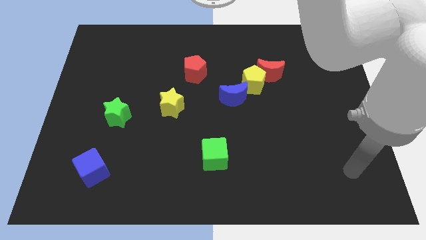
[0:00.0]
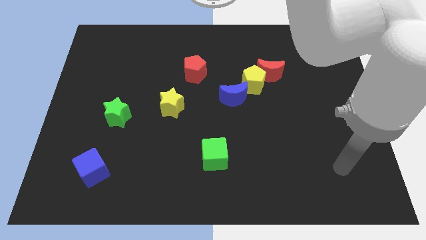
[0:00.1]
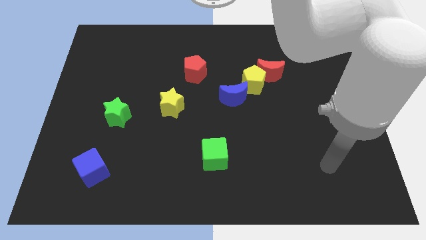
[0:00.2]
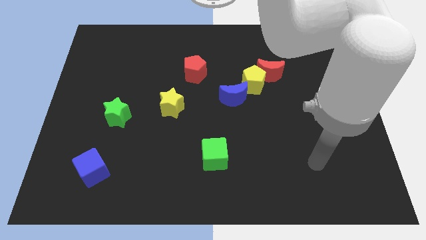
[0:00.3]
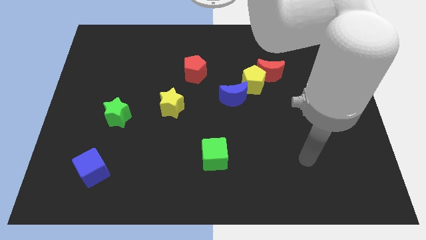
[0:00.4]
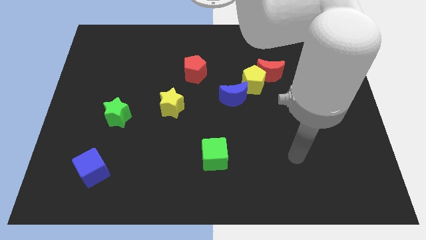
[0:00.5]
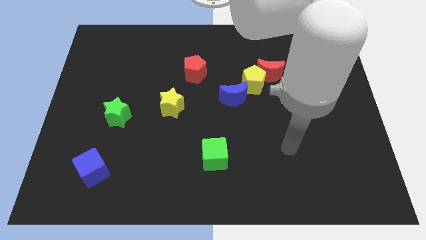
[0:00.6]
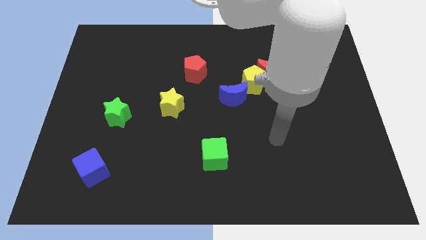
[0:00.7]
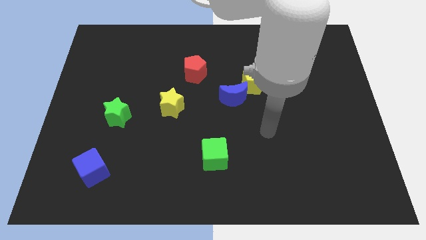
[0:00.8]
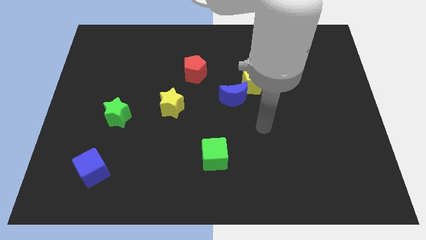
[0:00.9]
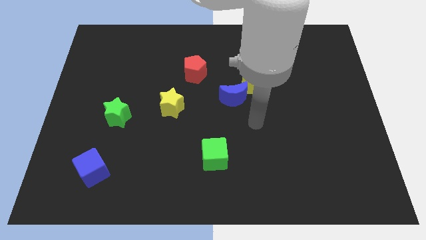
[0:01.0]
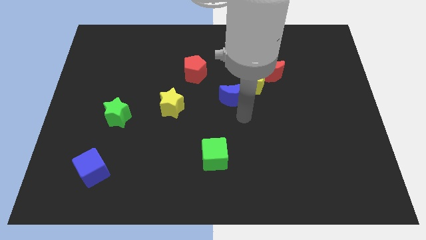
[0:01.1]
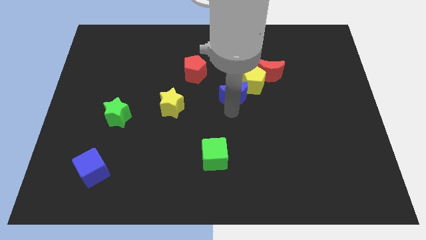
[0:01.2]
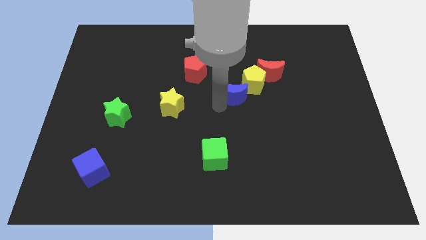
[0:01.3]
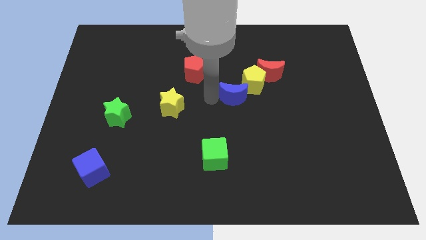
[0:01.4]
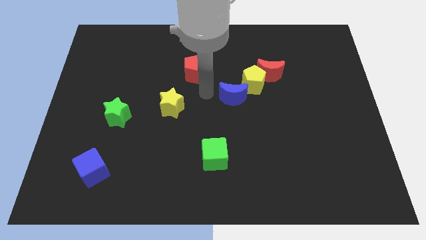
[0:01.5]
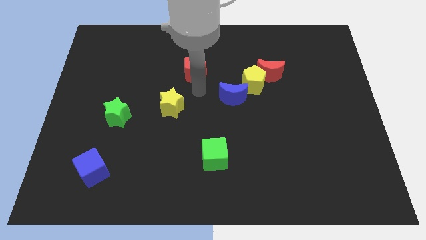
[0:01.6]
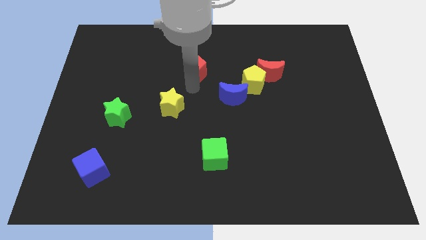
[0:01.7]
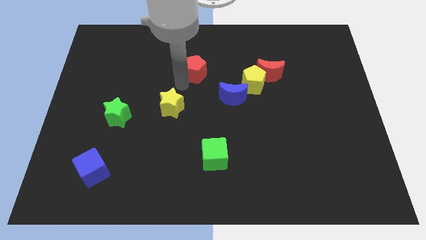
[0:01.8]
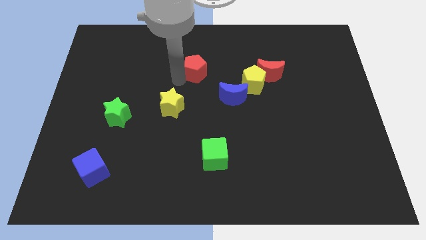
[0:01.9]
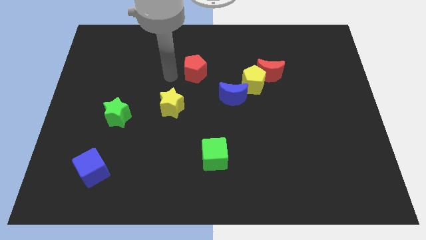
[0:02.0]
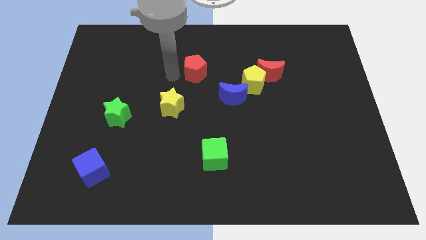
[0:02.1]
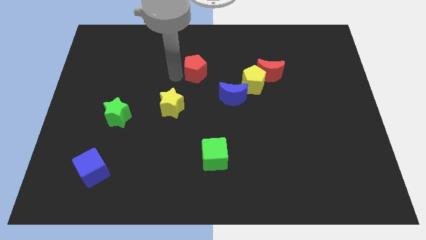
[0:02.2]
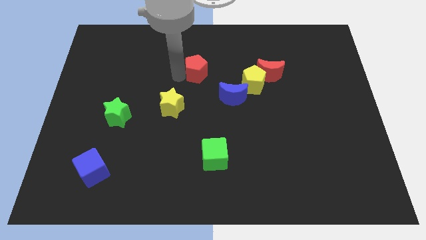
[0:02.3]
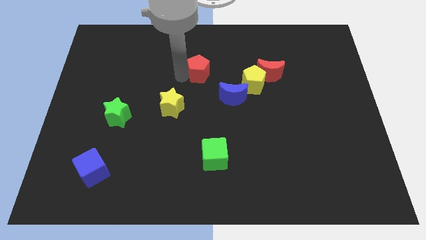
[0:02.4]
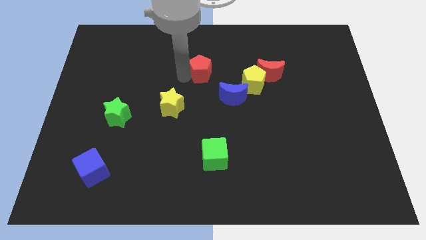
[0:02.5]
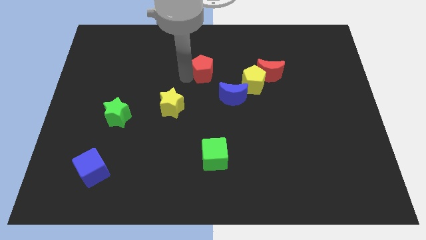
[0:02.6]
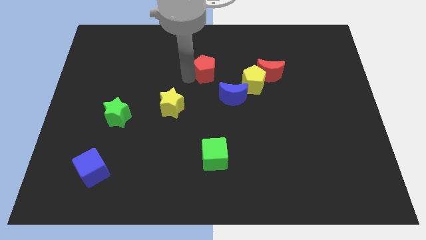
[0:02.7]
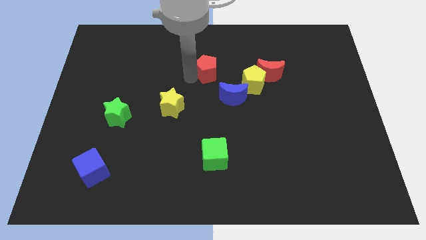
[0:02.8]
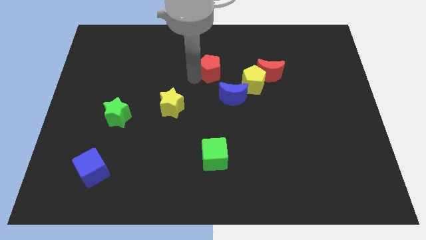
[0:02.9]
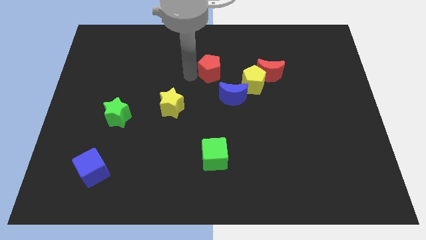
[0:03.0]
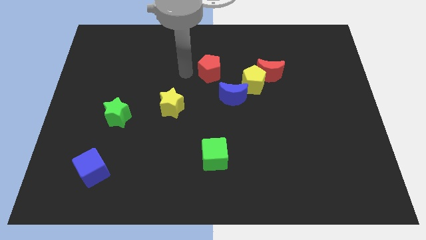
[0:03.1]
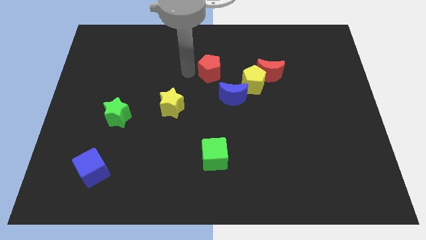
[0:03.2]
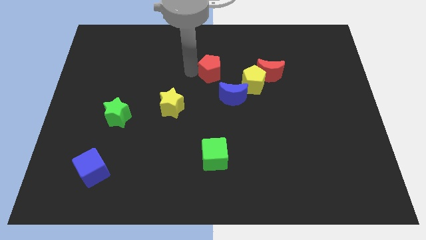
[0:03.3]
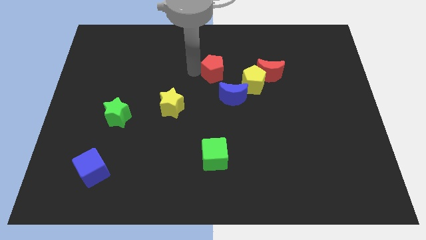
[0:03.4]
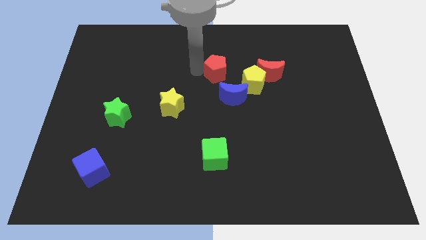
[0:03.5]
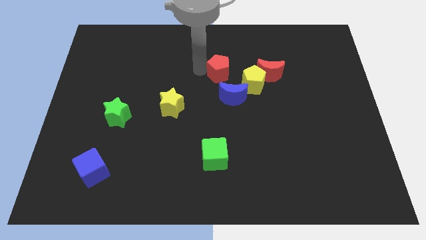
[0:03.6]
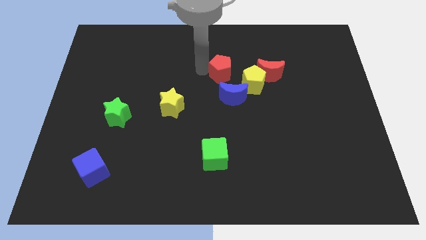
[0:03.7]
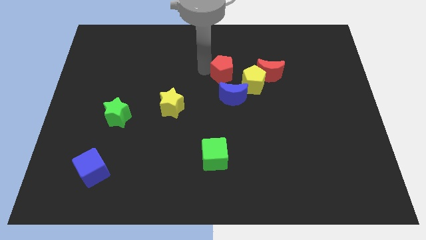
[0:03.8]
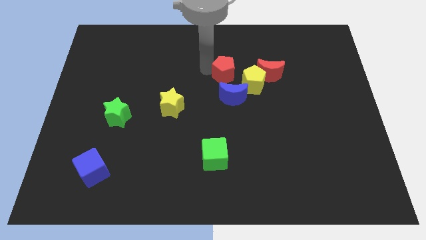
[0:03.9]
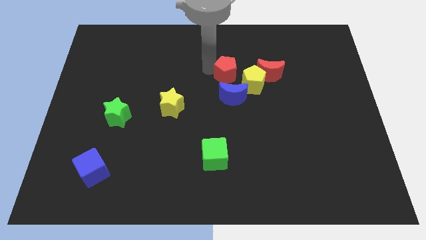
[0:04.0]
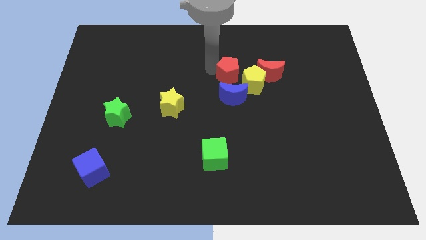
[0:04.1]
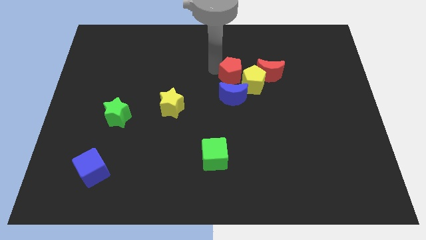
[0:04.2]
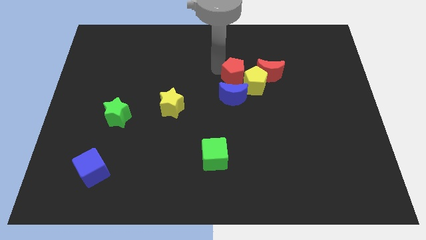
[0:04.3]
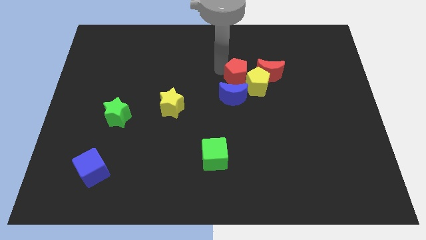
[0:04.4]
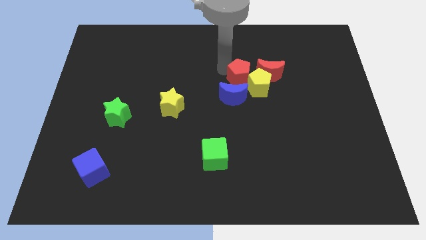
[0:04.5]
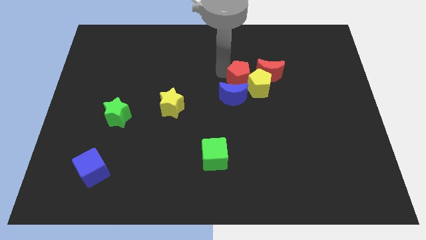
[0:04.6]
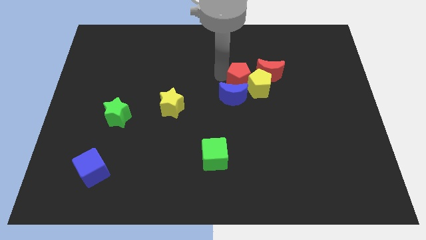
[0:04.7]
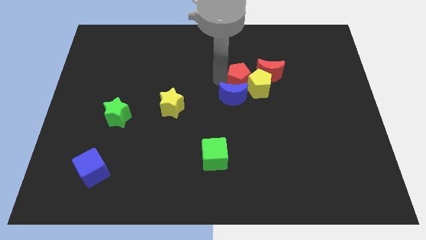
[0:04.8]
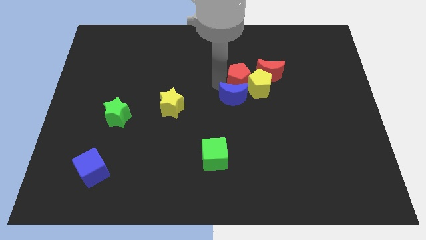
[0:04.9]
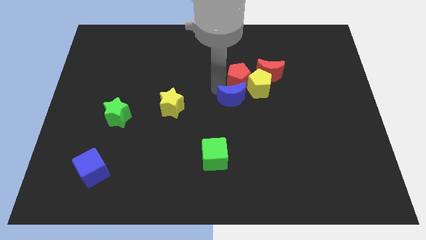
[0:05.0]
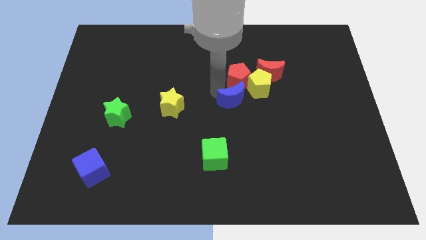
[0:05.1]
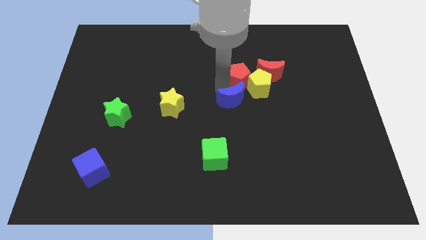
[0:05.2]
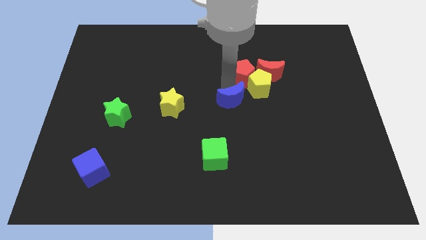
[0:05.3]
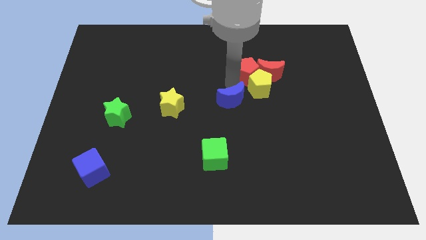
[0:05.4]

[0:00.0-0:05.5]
slide the red pentagon towards the red moon

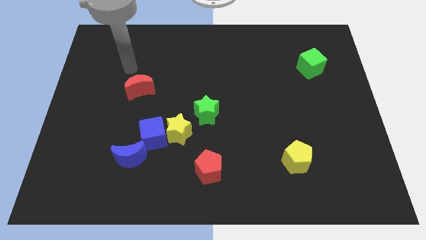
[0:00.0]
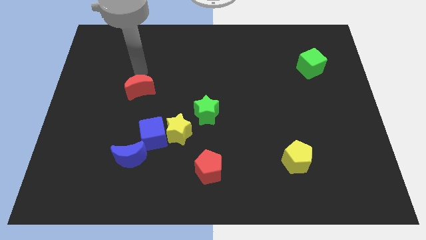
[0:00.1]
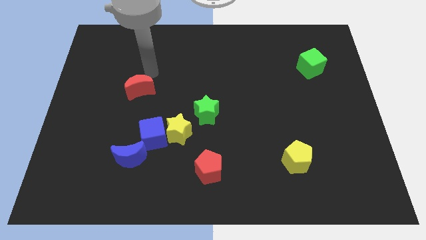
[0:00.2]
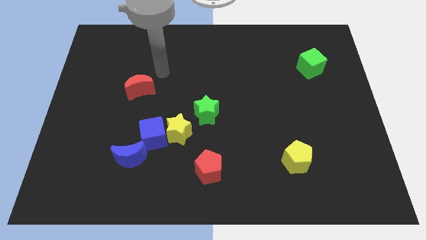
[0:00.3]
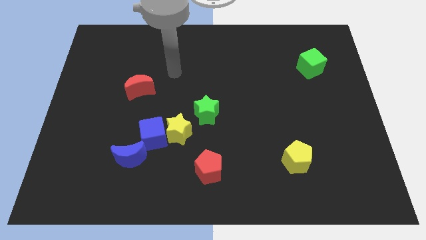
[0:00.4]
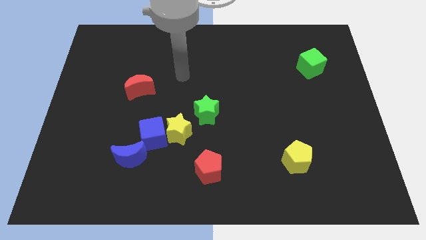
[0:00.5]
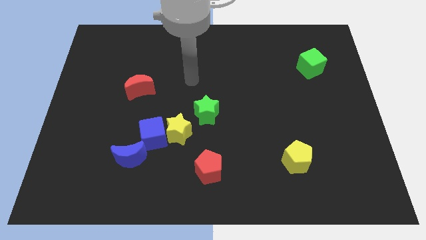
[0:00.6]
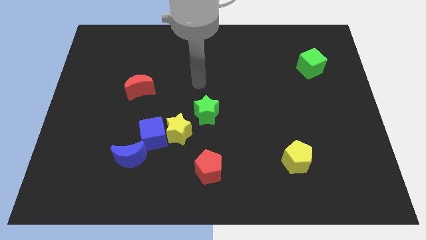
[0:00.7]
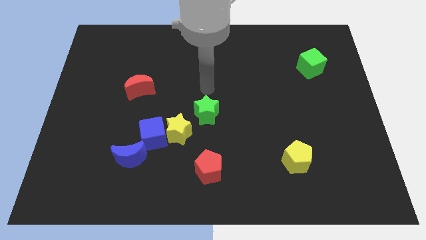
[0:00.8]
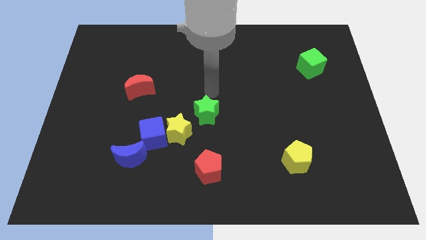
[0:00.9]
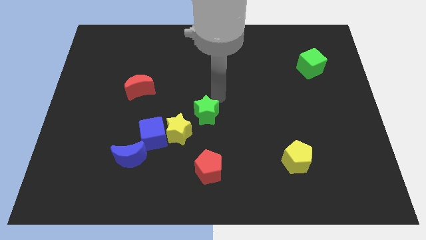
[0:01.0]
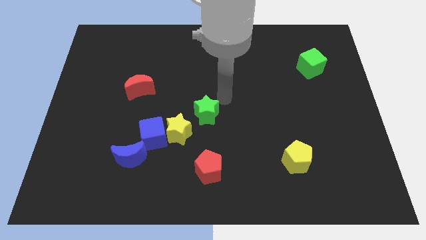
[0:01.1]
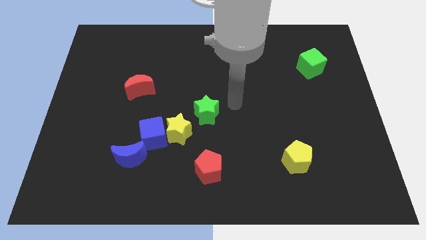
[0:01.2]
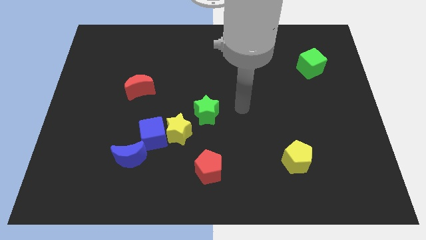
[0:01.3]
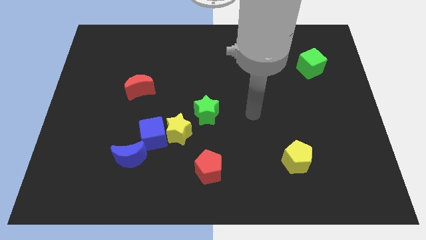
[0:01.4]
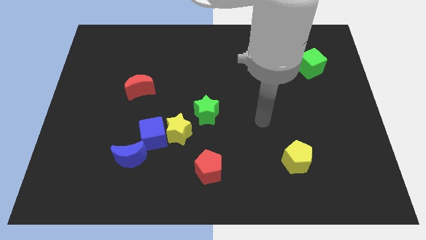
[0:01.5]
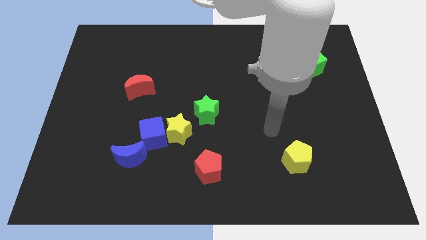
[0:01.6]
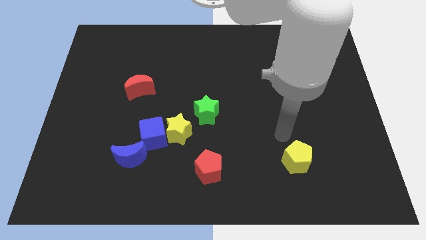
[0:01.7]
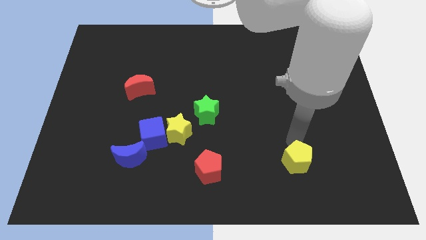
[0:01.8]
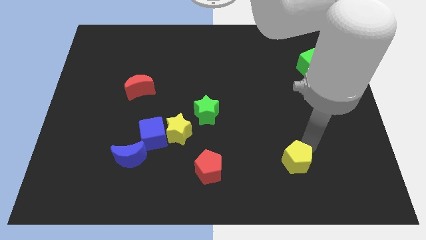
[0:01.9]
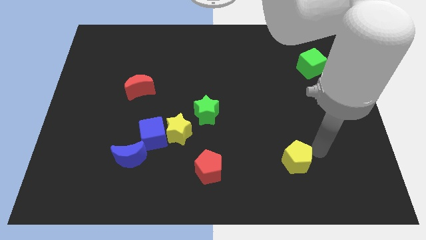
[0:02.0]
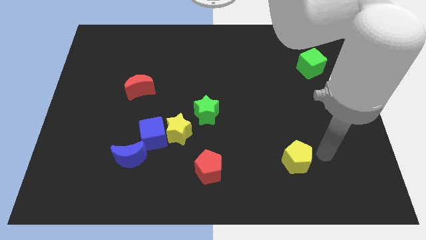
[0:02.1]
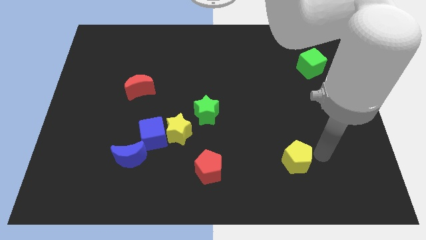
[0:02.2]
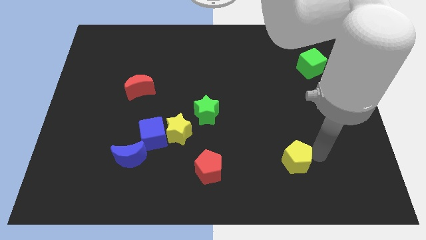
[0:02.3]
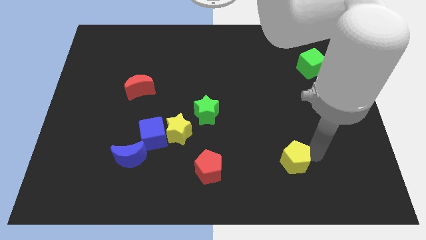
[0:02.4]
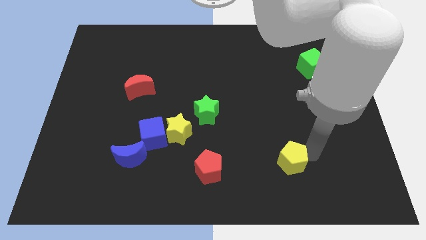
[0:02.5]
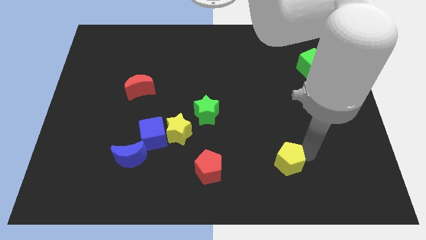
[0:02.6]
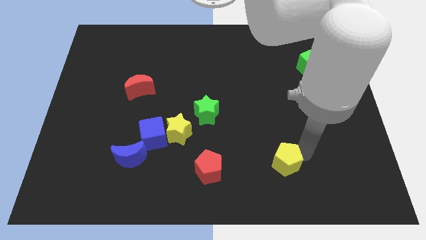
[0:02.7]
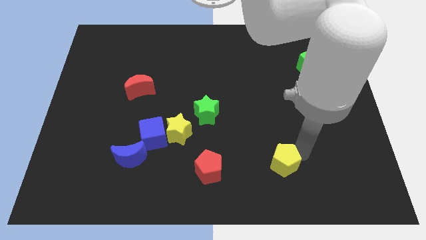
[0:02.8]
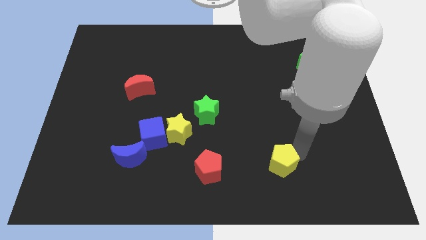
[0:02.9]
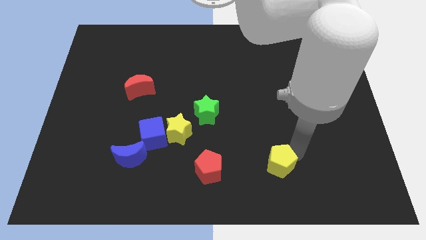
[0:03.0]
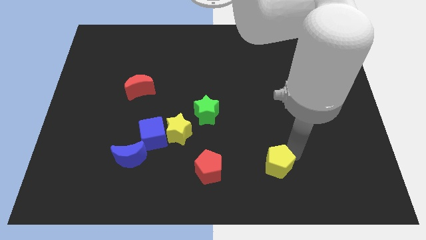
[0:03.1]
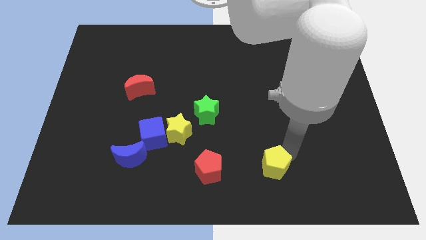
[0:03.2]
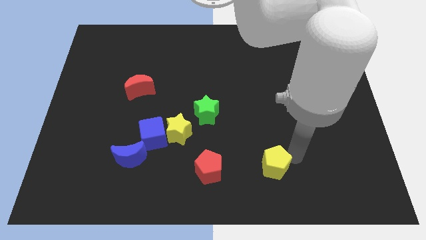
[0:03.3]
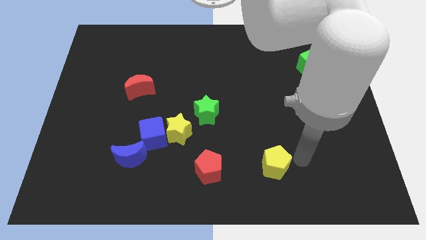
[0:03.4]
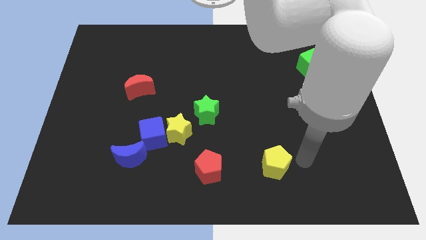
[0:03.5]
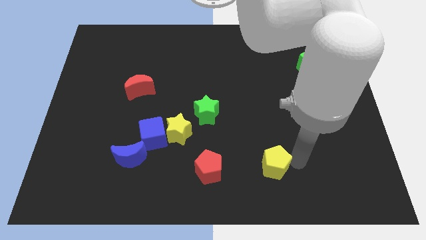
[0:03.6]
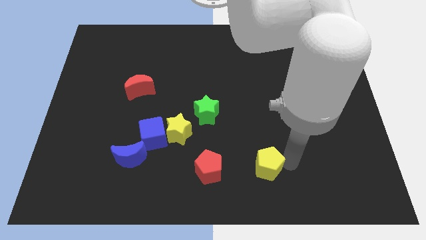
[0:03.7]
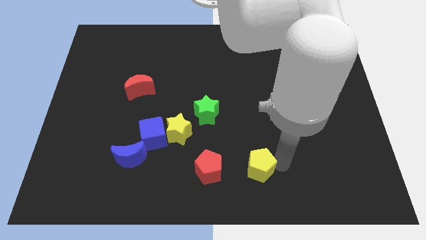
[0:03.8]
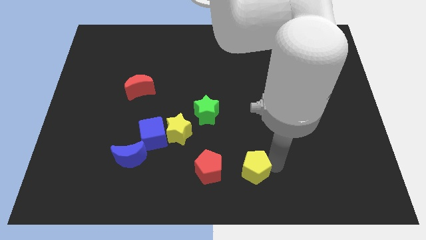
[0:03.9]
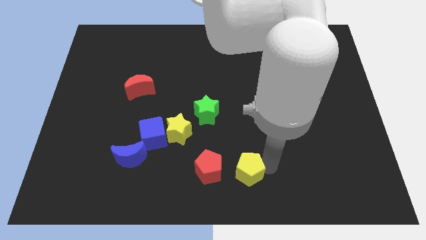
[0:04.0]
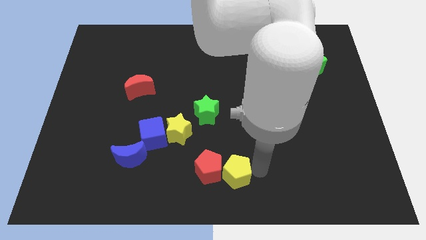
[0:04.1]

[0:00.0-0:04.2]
push the yellow pentagon to the red pentagon
